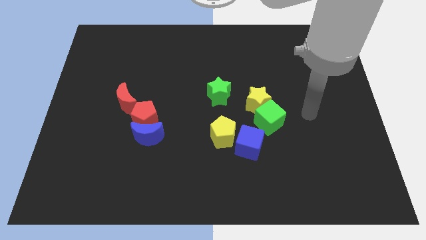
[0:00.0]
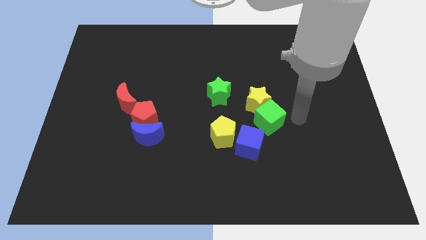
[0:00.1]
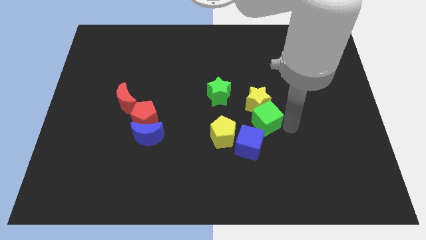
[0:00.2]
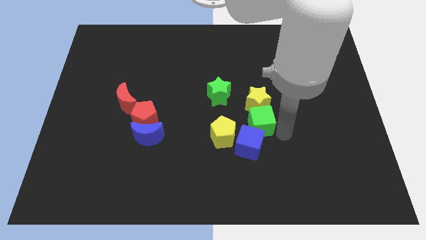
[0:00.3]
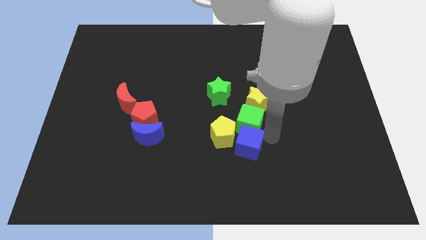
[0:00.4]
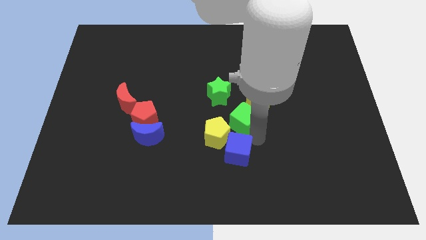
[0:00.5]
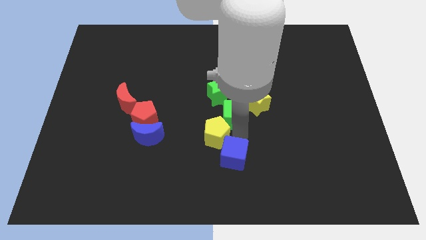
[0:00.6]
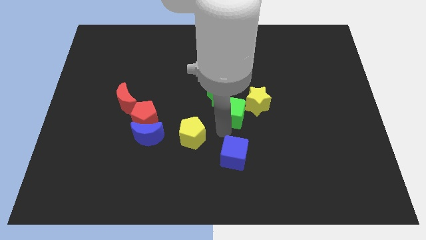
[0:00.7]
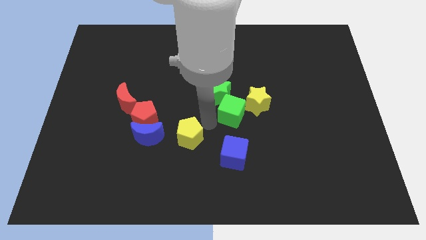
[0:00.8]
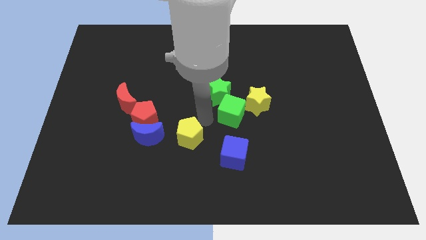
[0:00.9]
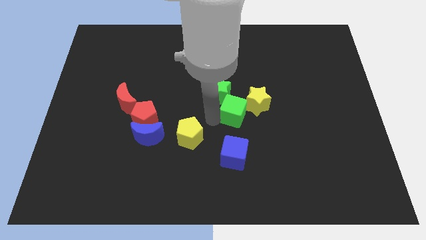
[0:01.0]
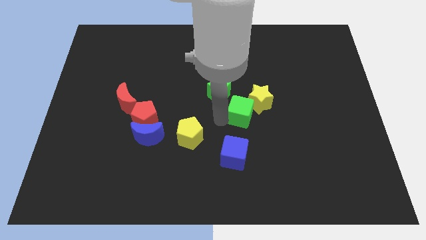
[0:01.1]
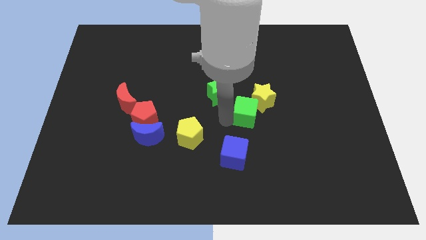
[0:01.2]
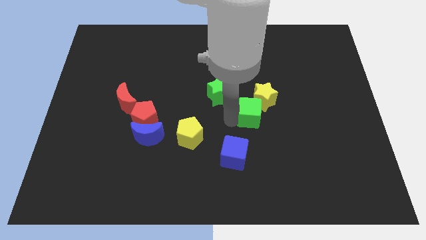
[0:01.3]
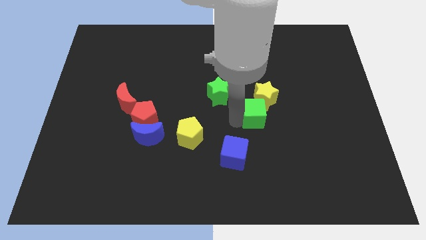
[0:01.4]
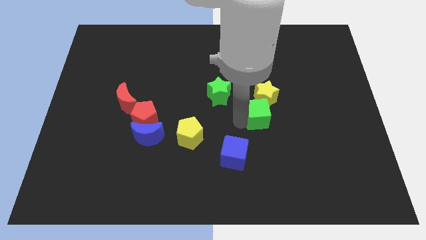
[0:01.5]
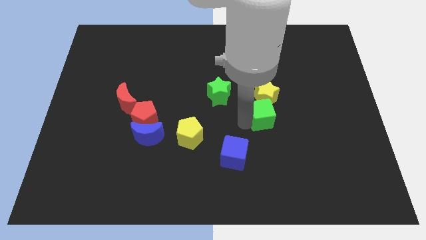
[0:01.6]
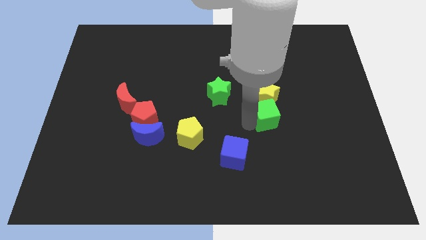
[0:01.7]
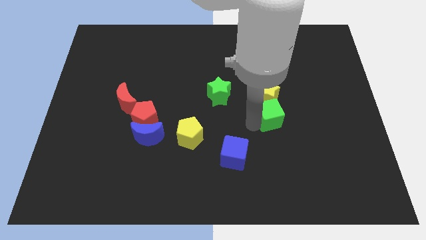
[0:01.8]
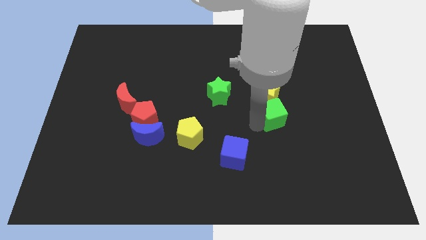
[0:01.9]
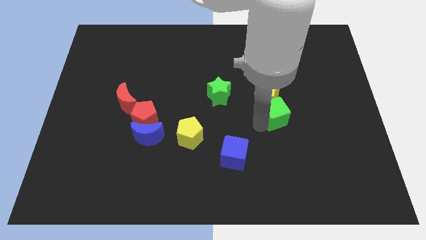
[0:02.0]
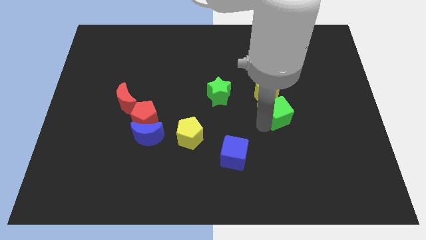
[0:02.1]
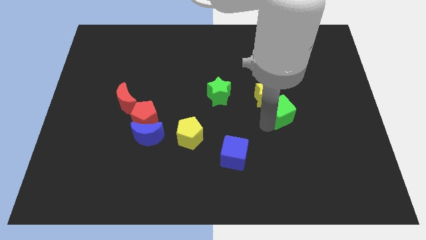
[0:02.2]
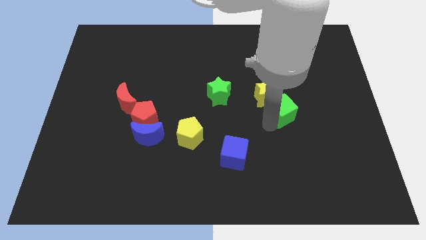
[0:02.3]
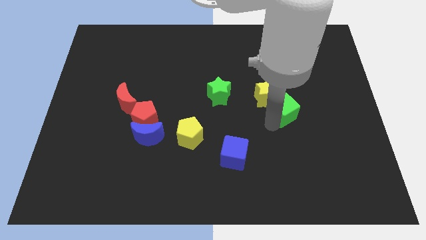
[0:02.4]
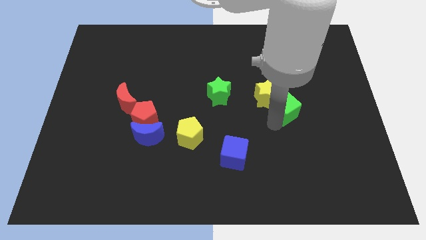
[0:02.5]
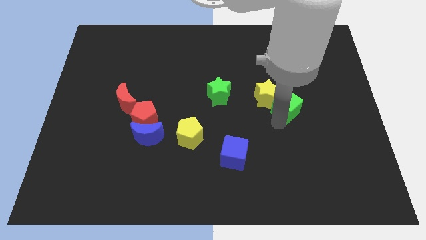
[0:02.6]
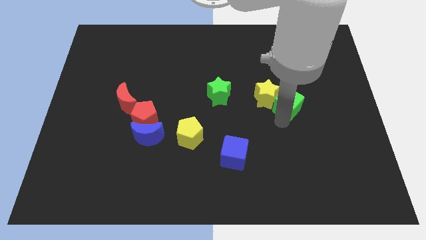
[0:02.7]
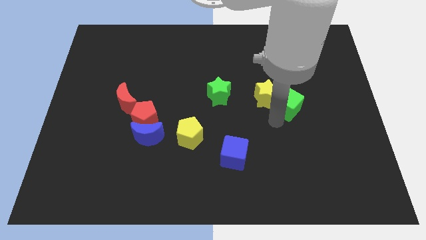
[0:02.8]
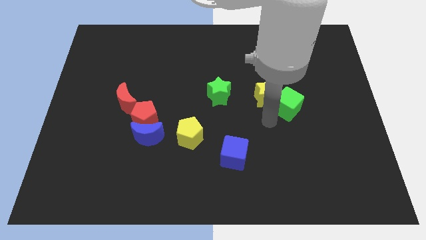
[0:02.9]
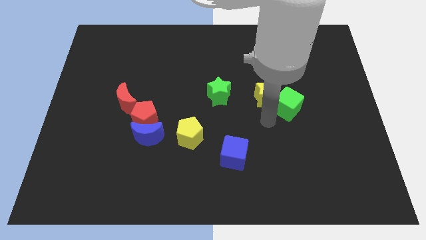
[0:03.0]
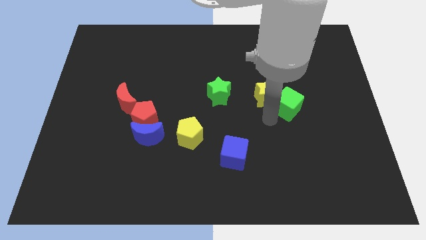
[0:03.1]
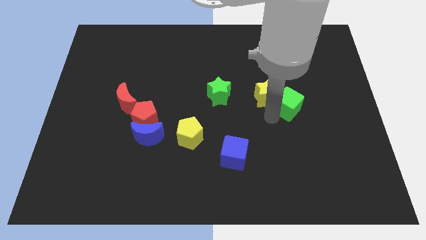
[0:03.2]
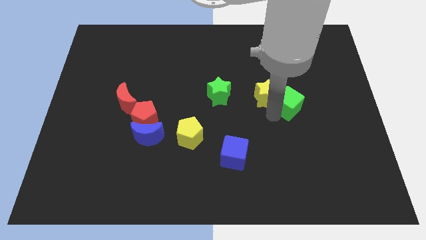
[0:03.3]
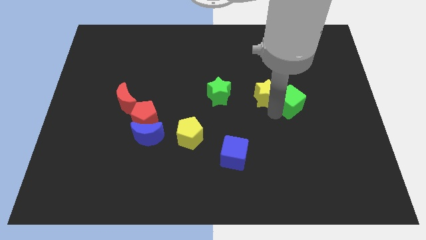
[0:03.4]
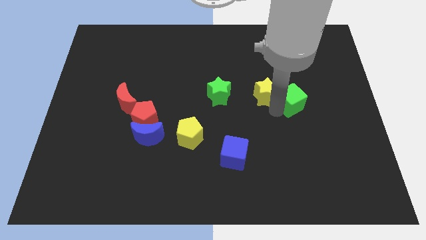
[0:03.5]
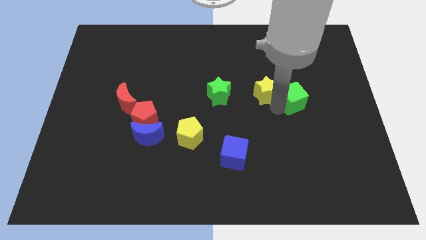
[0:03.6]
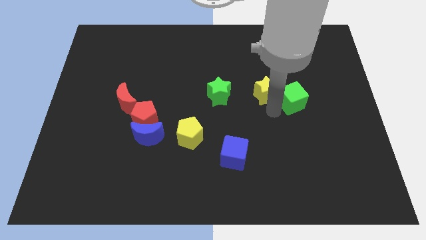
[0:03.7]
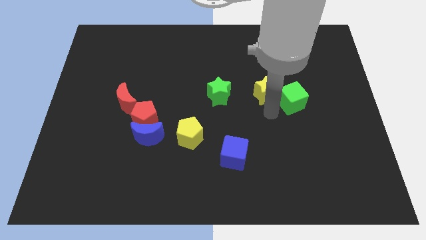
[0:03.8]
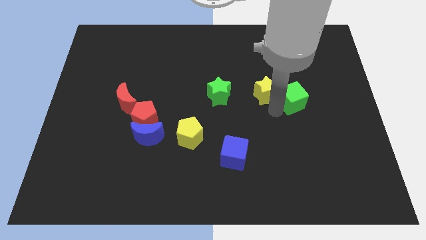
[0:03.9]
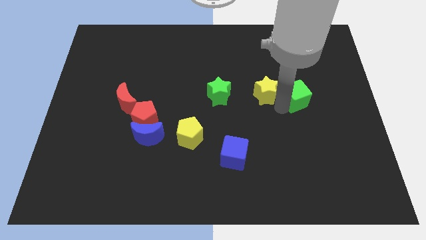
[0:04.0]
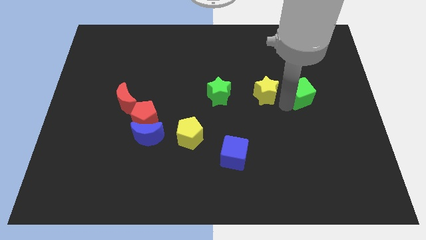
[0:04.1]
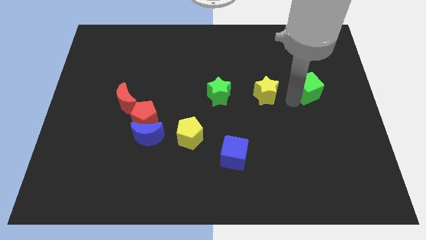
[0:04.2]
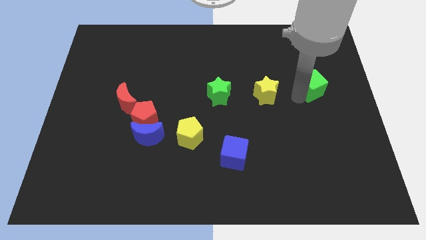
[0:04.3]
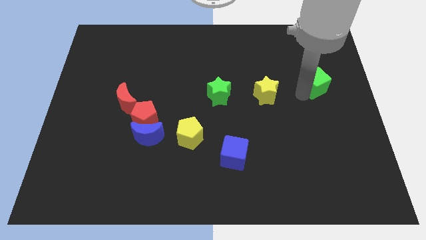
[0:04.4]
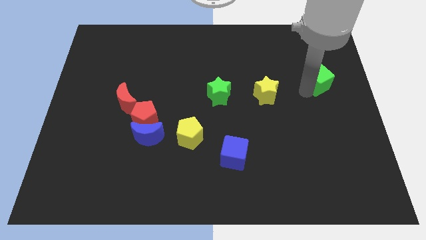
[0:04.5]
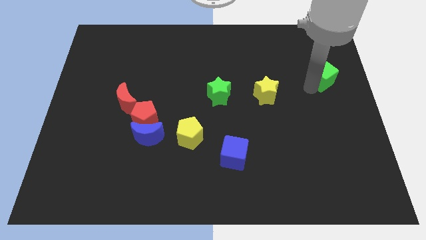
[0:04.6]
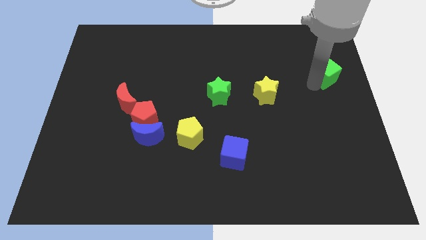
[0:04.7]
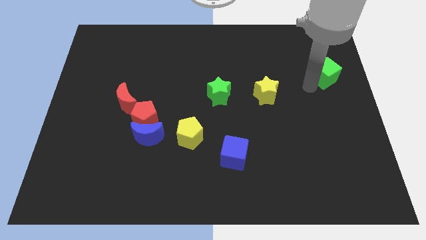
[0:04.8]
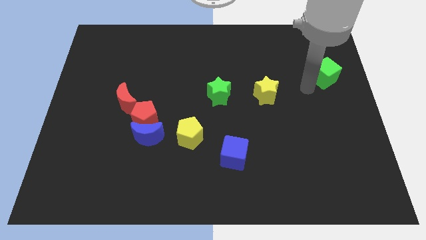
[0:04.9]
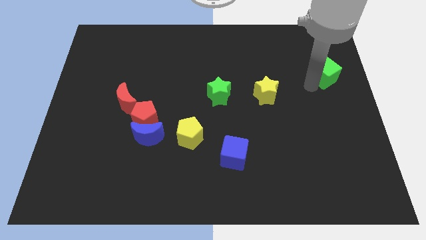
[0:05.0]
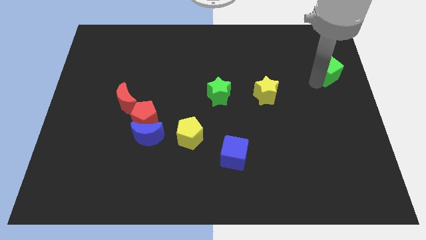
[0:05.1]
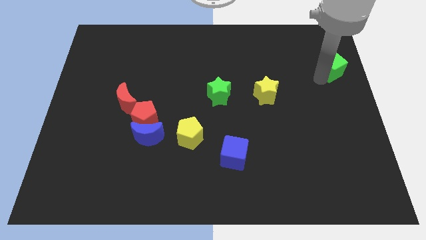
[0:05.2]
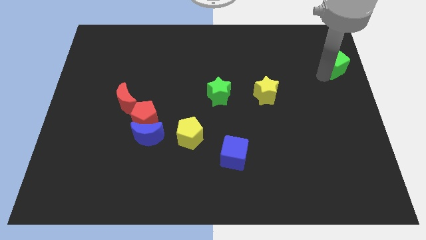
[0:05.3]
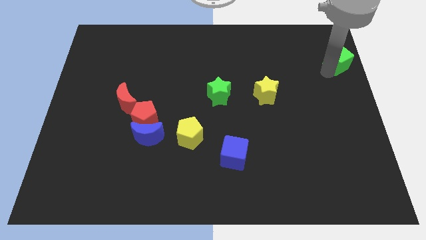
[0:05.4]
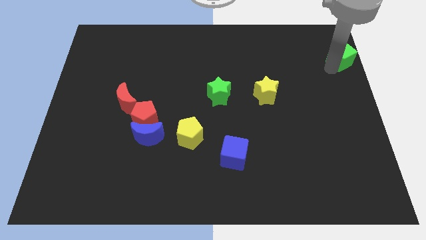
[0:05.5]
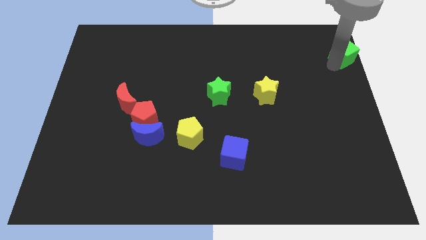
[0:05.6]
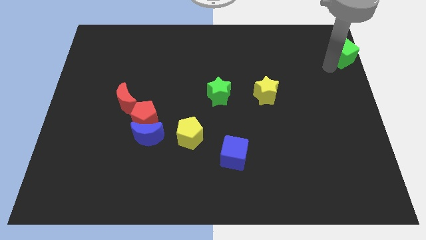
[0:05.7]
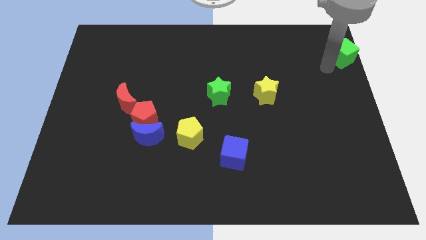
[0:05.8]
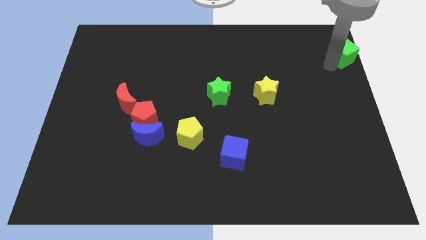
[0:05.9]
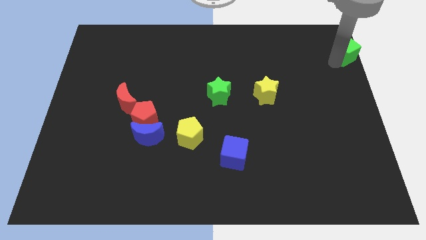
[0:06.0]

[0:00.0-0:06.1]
slide the green cube to the top right corner
